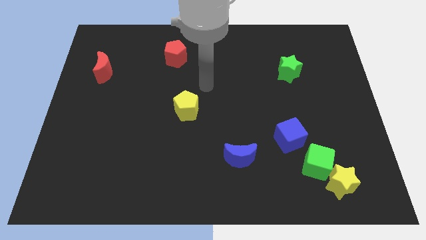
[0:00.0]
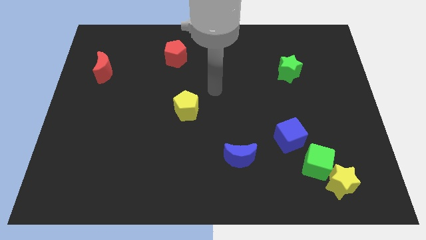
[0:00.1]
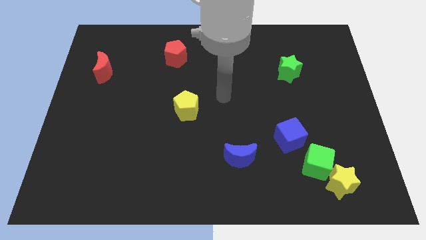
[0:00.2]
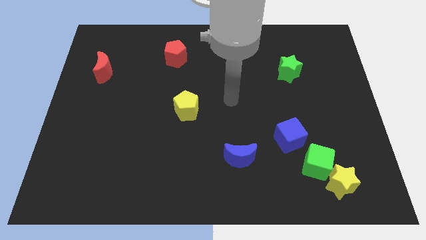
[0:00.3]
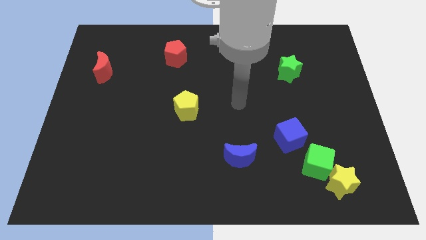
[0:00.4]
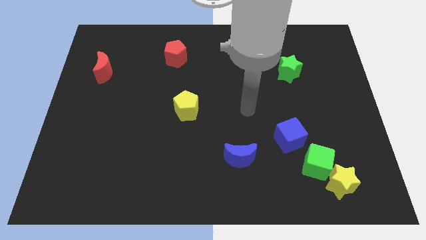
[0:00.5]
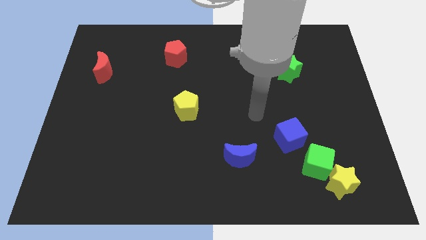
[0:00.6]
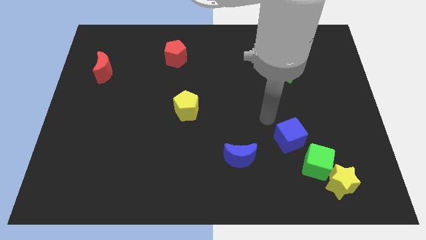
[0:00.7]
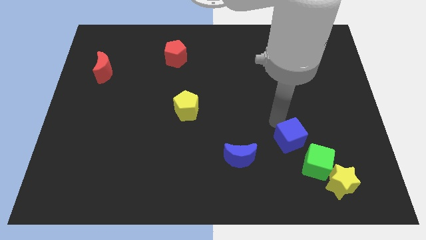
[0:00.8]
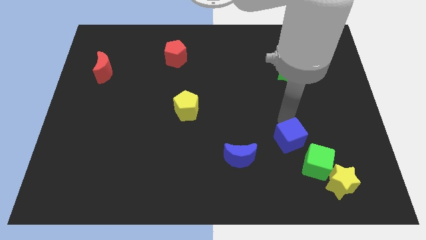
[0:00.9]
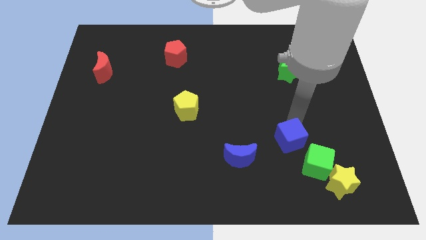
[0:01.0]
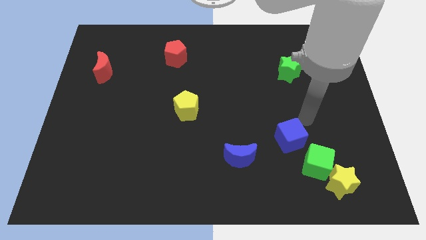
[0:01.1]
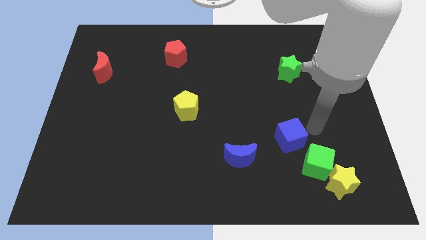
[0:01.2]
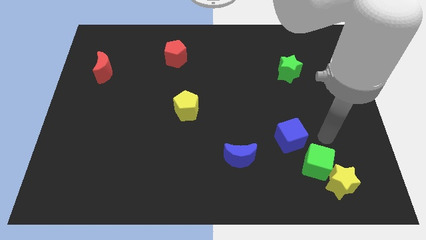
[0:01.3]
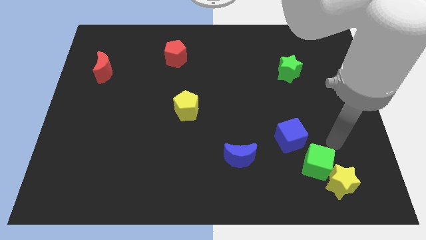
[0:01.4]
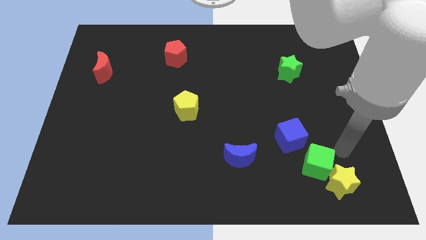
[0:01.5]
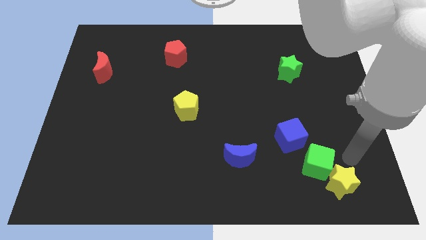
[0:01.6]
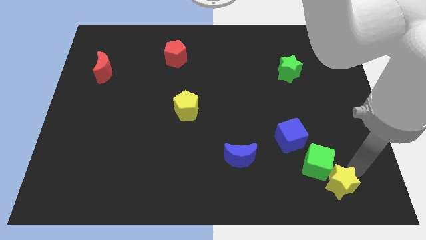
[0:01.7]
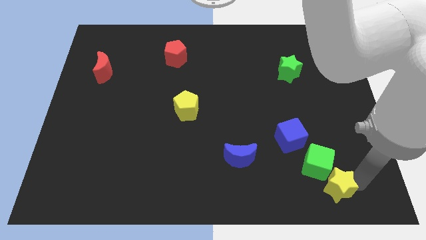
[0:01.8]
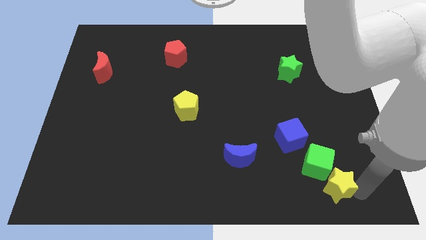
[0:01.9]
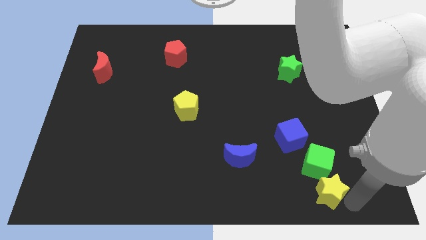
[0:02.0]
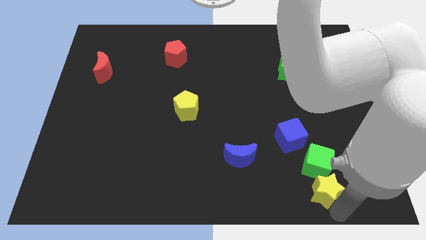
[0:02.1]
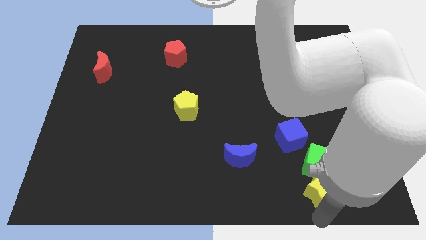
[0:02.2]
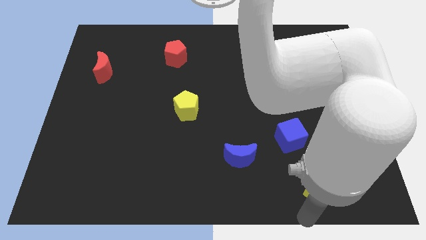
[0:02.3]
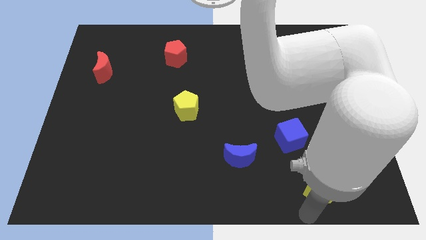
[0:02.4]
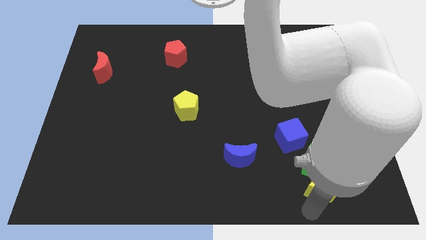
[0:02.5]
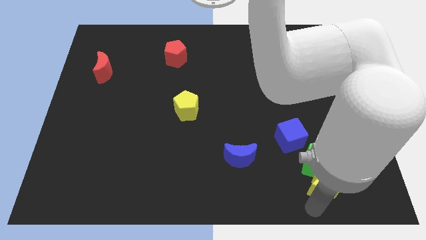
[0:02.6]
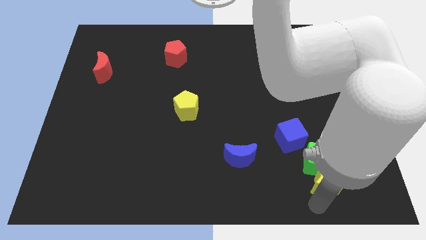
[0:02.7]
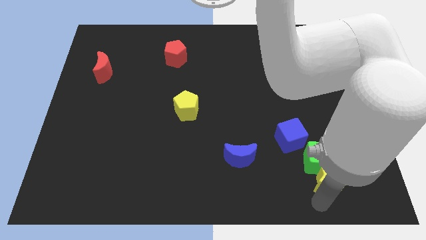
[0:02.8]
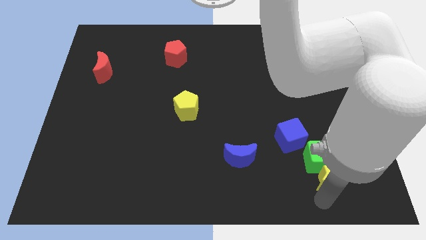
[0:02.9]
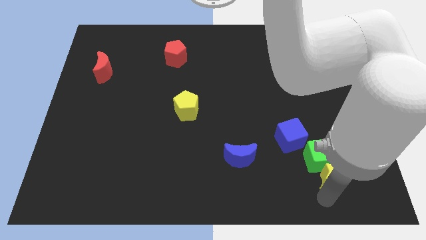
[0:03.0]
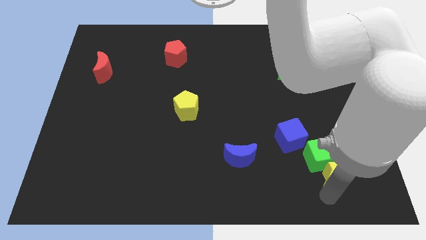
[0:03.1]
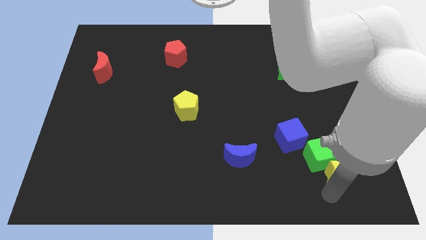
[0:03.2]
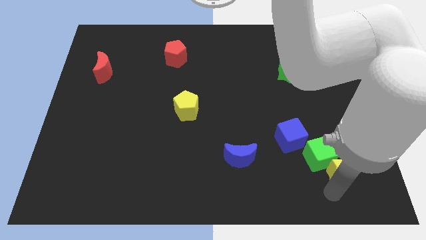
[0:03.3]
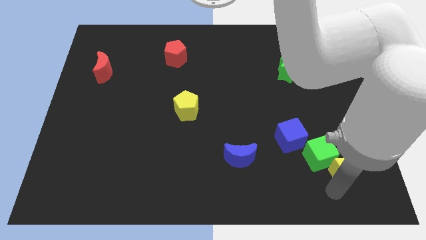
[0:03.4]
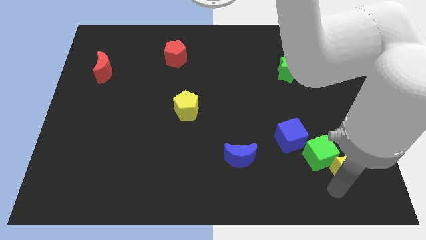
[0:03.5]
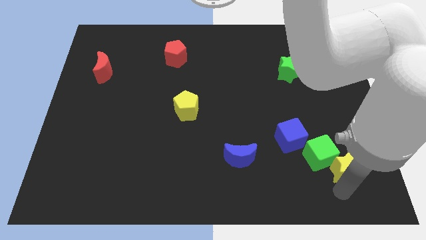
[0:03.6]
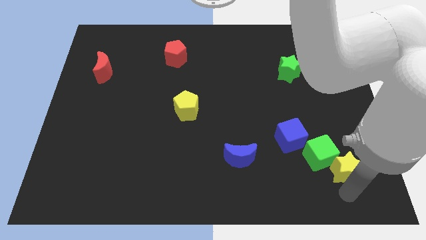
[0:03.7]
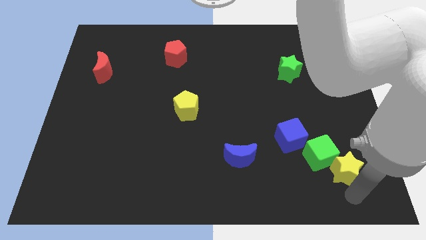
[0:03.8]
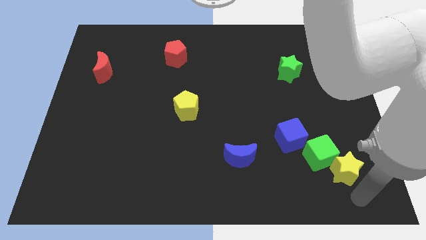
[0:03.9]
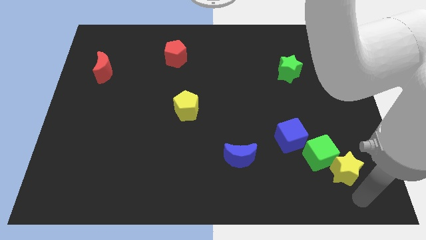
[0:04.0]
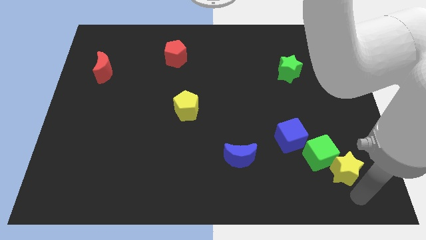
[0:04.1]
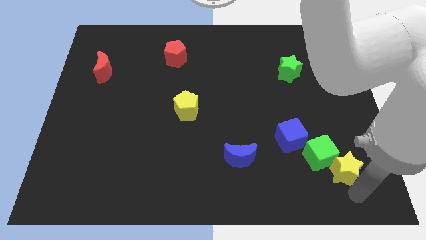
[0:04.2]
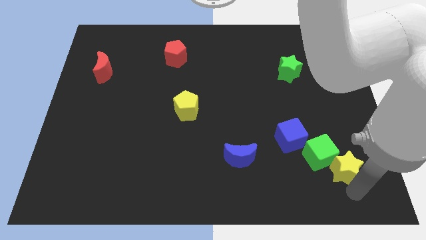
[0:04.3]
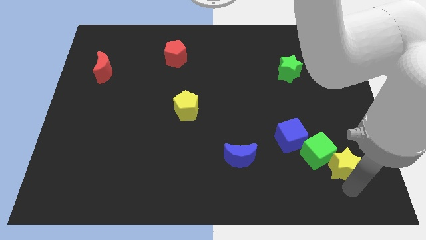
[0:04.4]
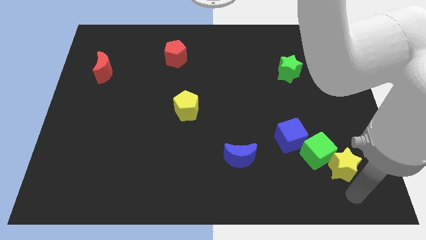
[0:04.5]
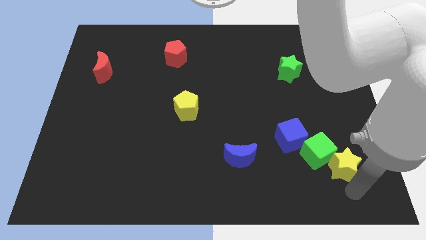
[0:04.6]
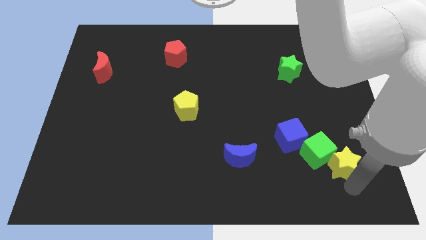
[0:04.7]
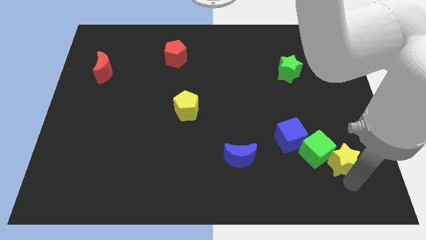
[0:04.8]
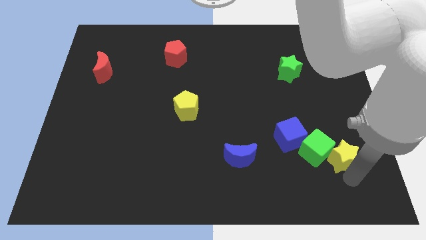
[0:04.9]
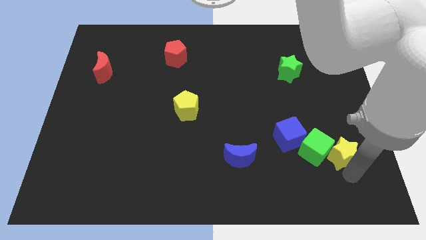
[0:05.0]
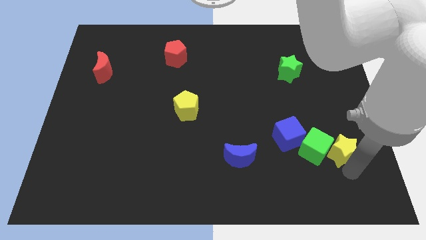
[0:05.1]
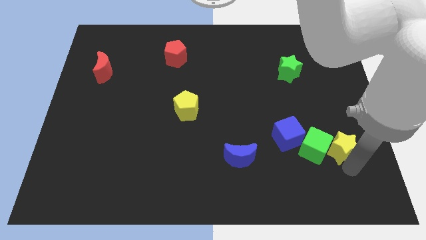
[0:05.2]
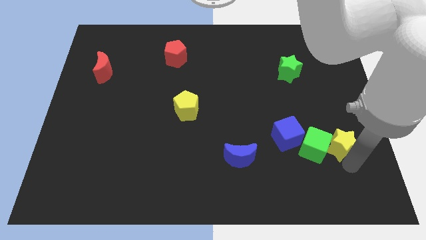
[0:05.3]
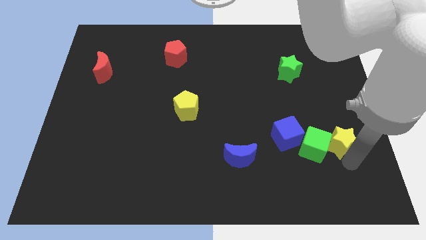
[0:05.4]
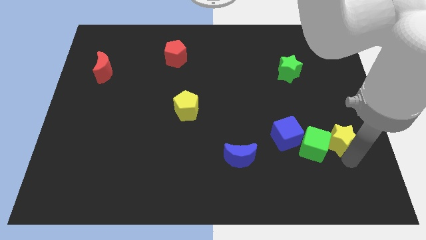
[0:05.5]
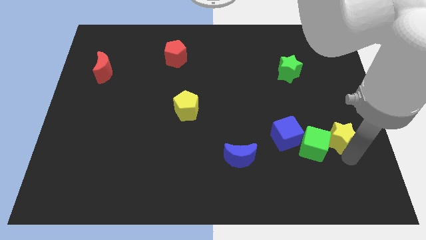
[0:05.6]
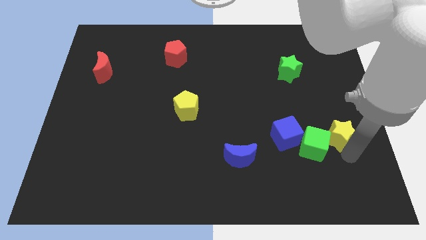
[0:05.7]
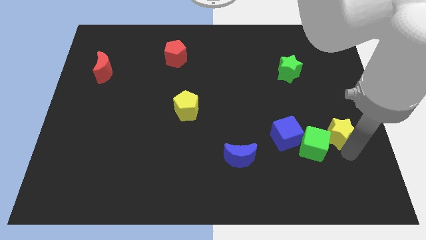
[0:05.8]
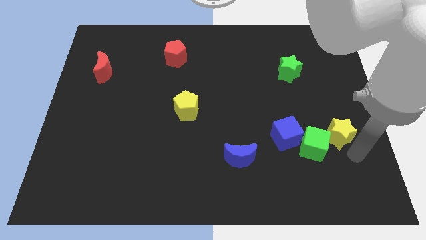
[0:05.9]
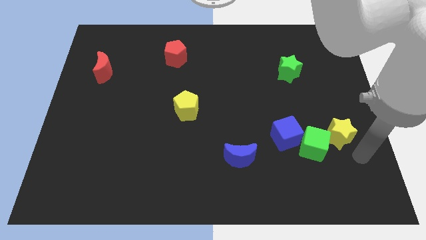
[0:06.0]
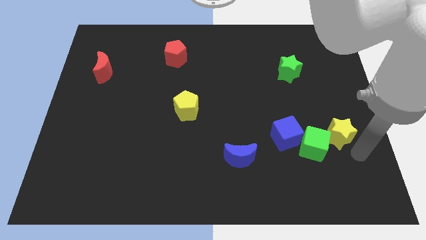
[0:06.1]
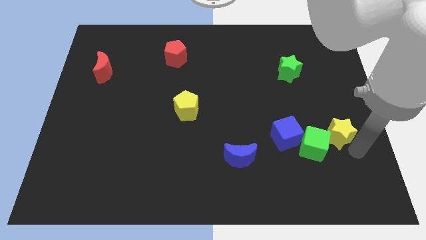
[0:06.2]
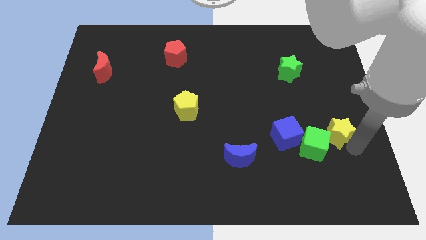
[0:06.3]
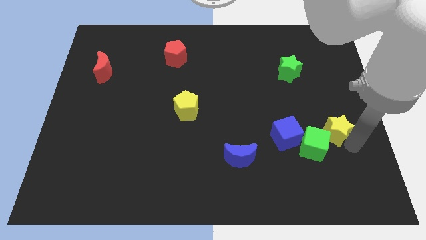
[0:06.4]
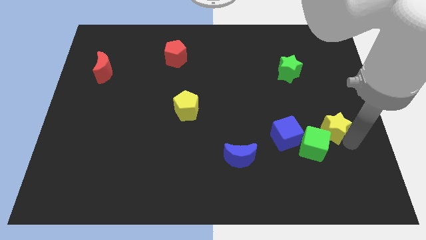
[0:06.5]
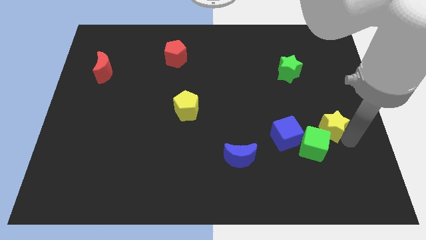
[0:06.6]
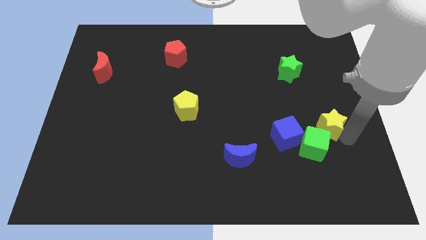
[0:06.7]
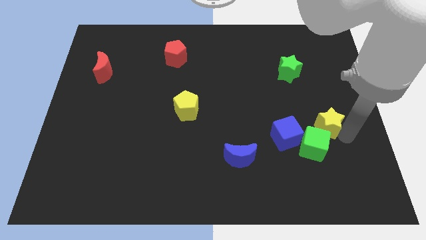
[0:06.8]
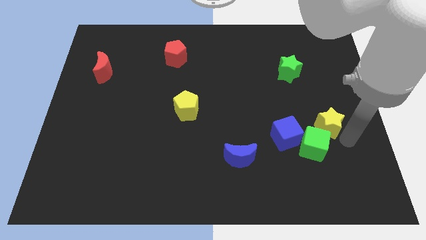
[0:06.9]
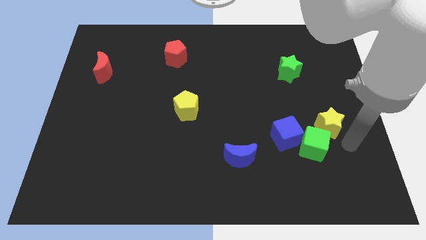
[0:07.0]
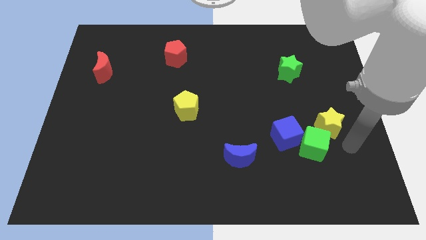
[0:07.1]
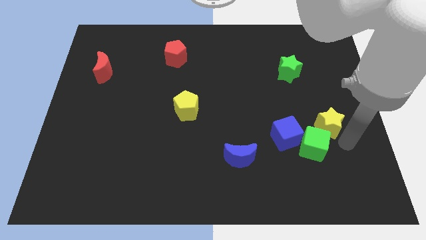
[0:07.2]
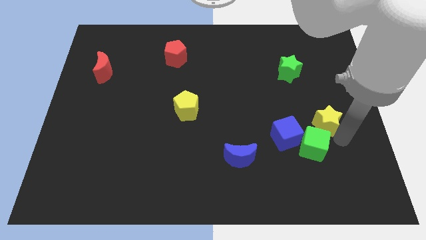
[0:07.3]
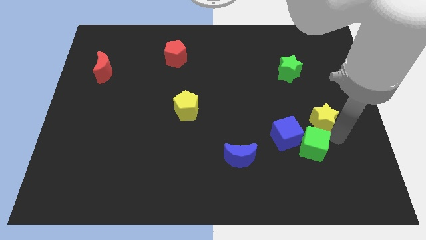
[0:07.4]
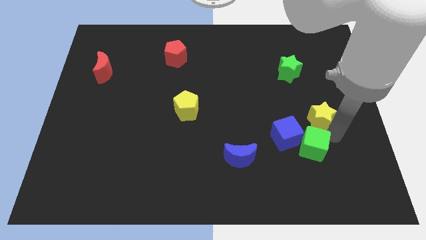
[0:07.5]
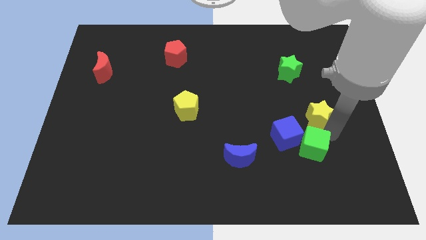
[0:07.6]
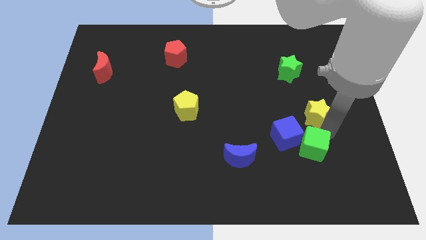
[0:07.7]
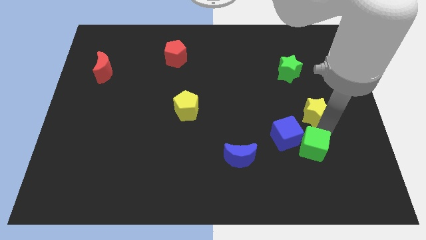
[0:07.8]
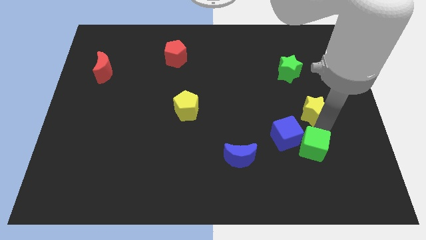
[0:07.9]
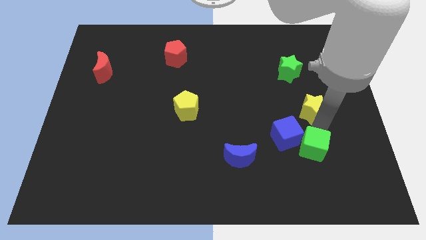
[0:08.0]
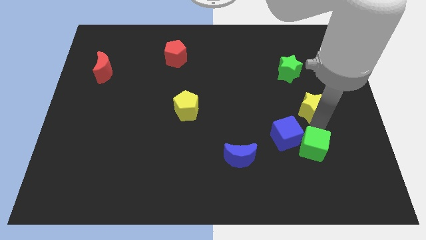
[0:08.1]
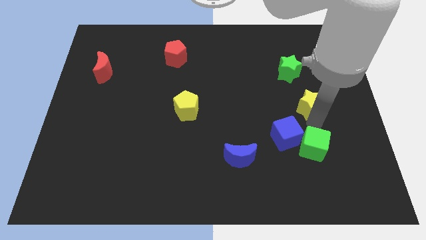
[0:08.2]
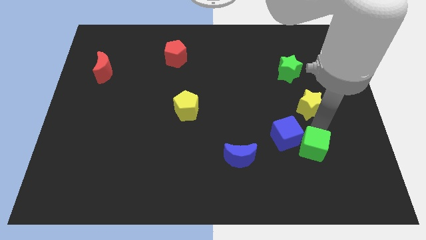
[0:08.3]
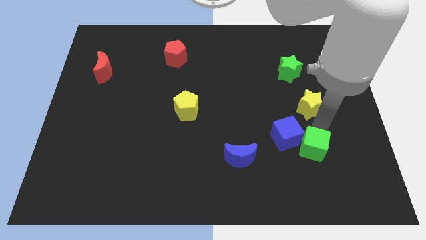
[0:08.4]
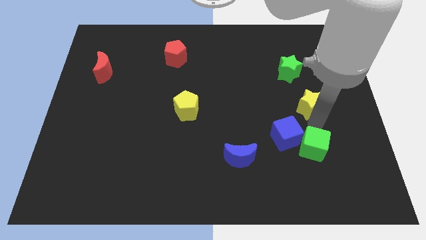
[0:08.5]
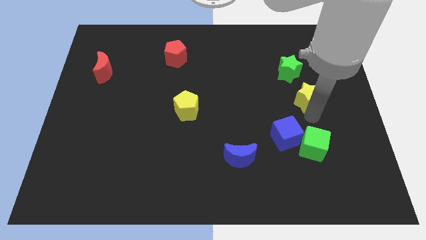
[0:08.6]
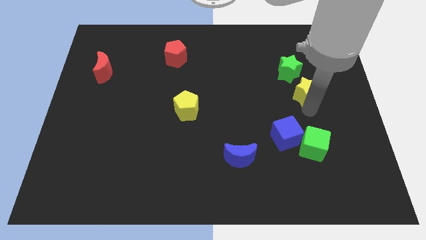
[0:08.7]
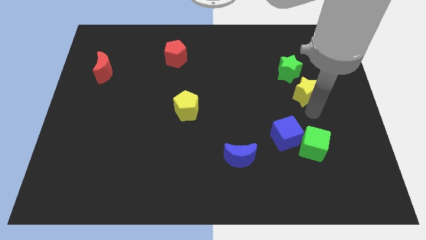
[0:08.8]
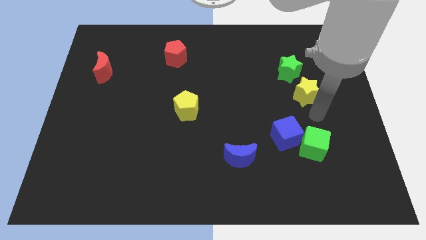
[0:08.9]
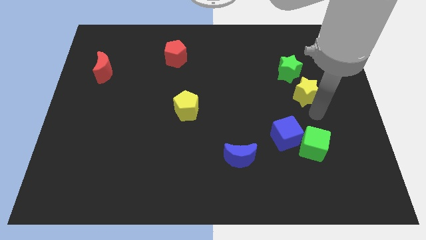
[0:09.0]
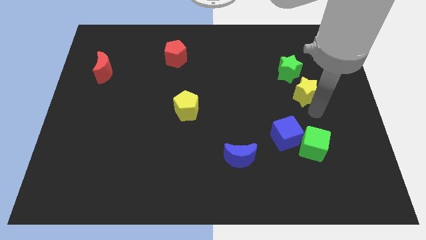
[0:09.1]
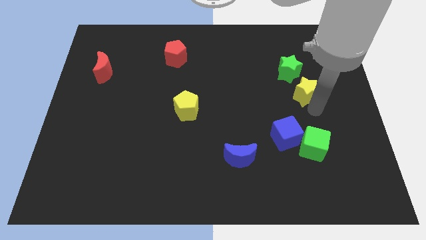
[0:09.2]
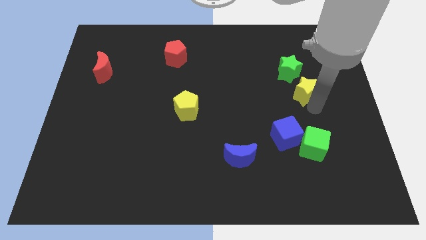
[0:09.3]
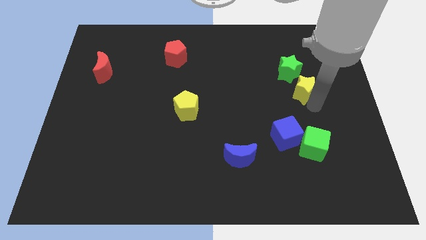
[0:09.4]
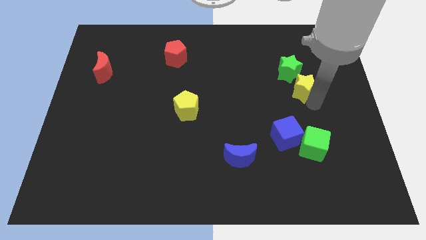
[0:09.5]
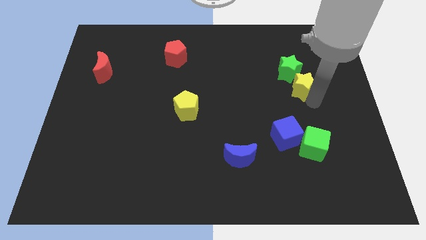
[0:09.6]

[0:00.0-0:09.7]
move the yellow star to the green star
